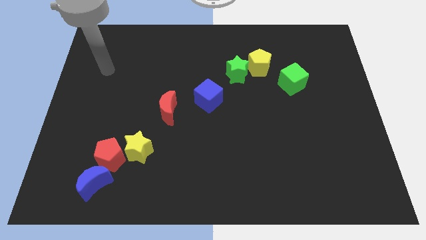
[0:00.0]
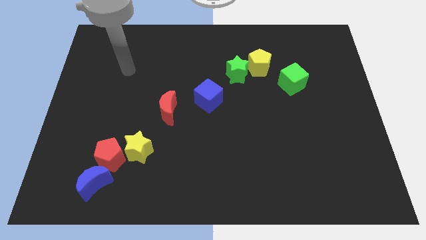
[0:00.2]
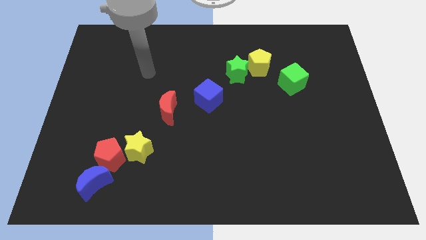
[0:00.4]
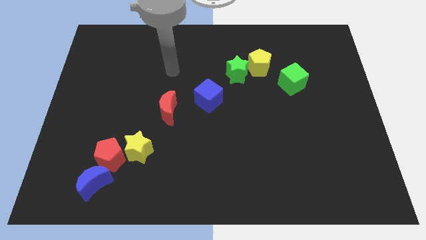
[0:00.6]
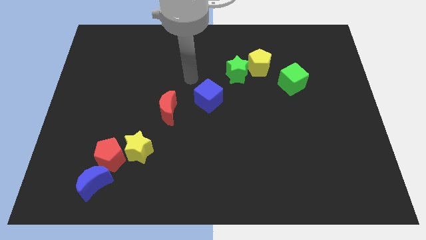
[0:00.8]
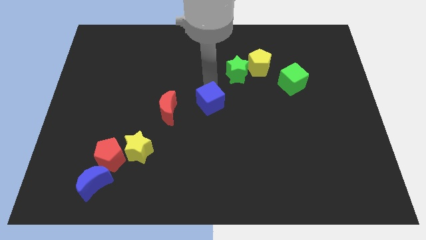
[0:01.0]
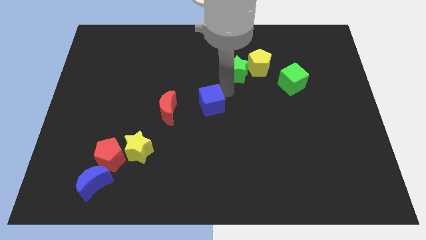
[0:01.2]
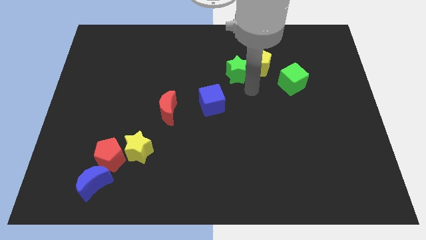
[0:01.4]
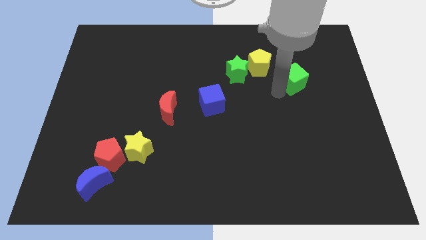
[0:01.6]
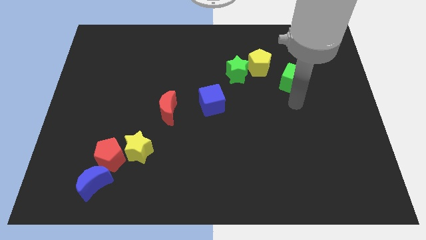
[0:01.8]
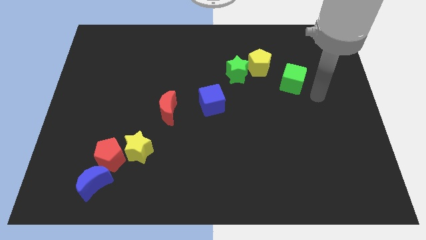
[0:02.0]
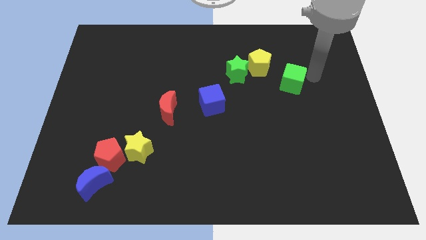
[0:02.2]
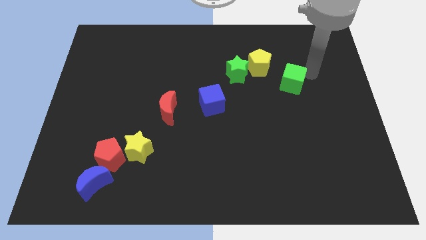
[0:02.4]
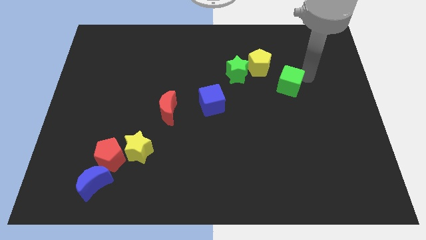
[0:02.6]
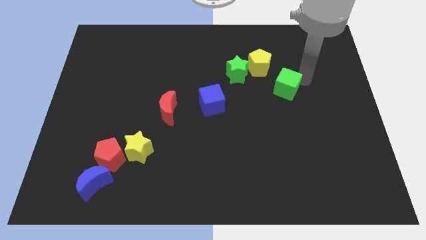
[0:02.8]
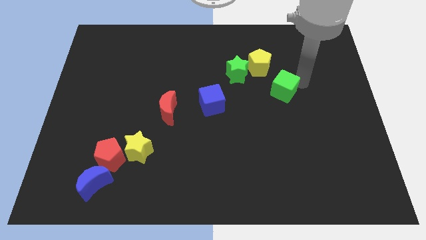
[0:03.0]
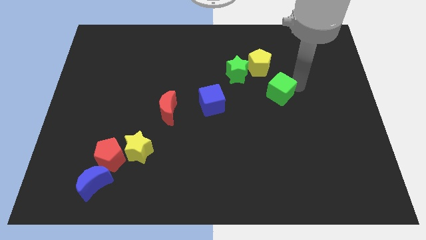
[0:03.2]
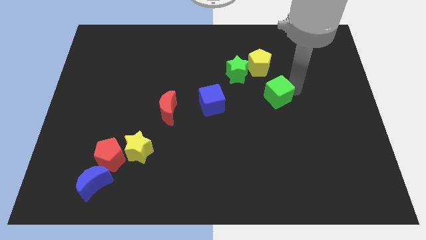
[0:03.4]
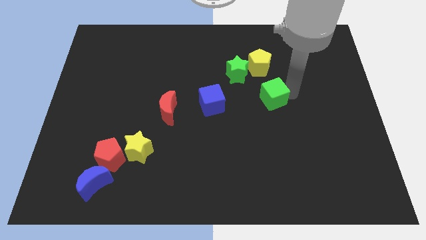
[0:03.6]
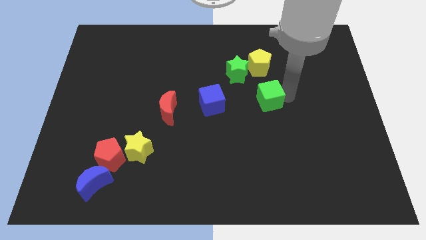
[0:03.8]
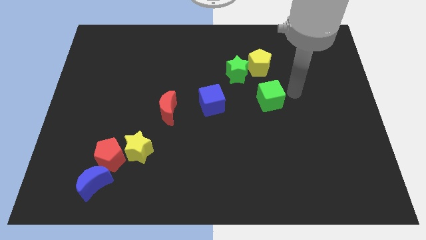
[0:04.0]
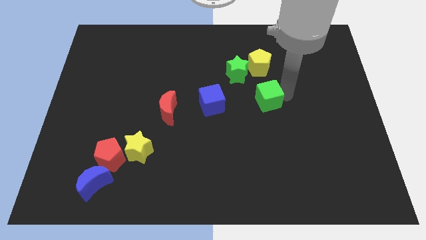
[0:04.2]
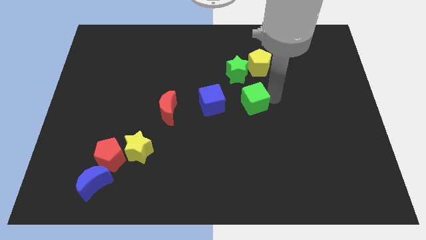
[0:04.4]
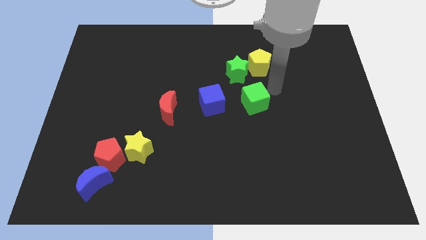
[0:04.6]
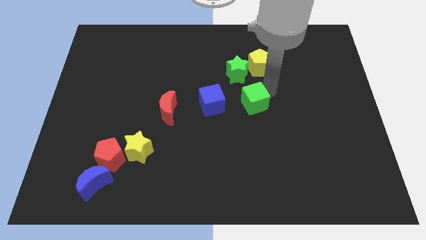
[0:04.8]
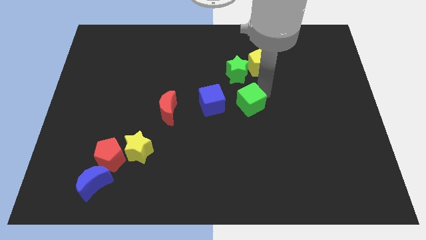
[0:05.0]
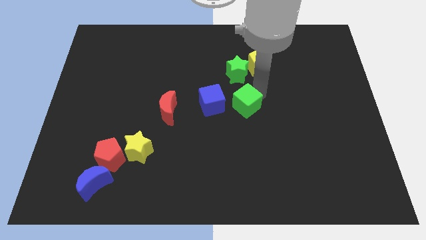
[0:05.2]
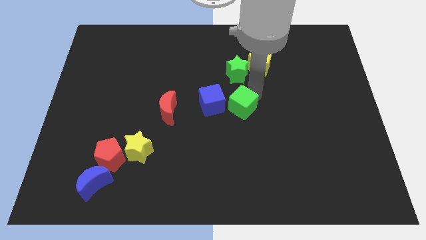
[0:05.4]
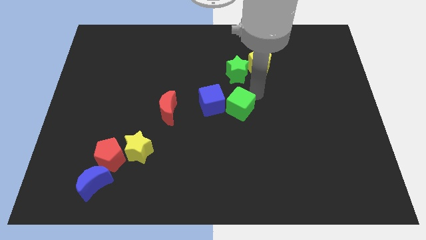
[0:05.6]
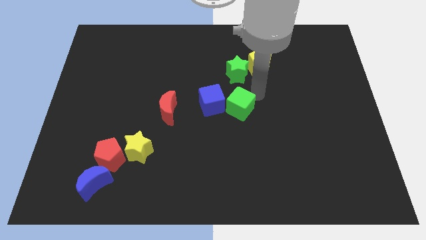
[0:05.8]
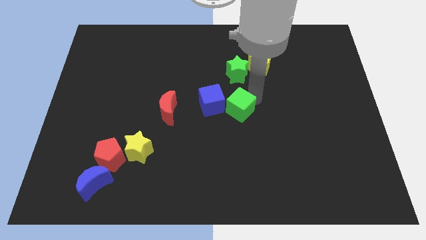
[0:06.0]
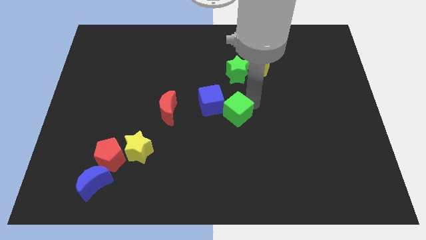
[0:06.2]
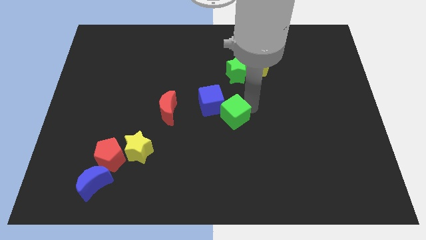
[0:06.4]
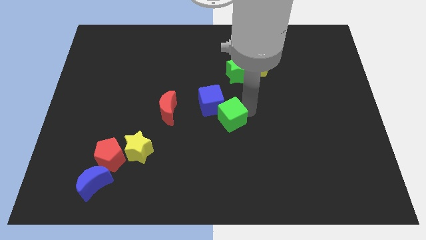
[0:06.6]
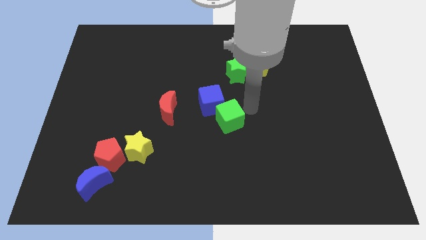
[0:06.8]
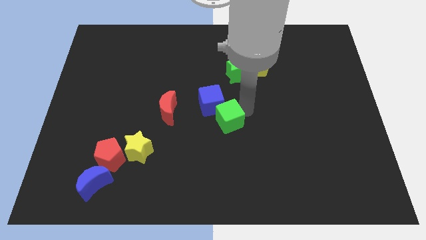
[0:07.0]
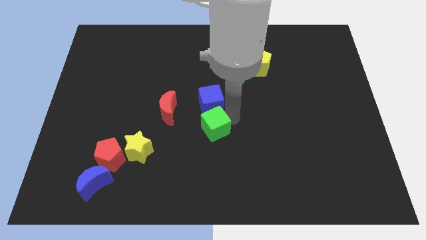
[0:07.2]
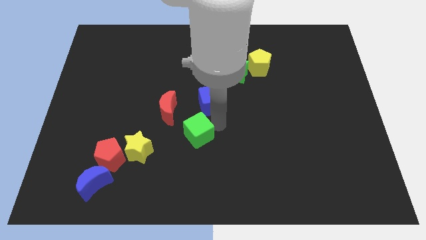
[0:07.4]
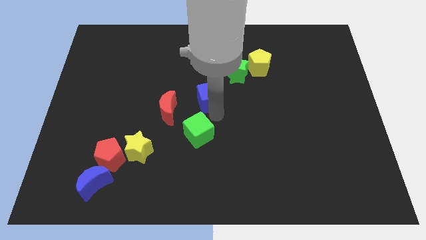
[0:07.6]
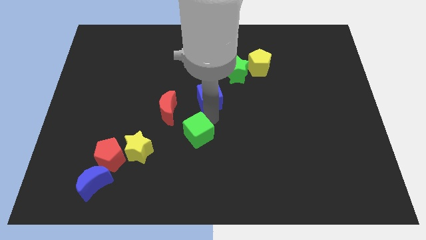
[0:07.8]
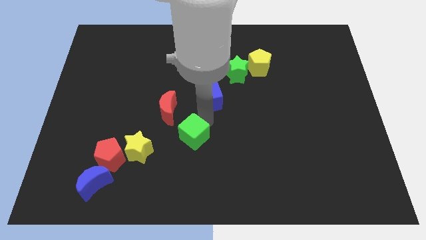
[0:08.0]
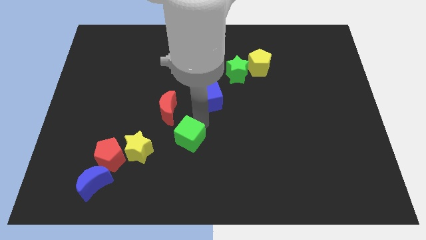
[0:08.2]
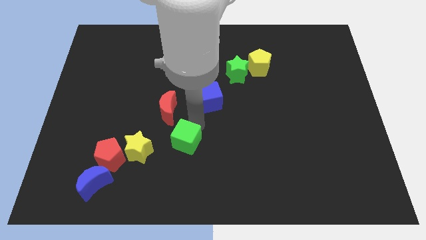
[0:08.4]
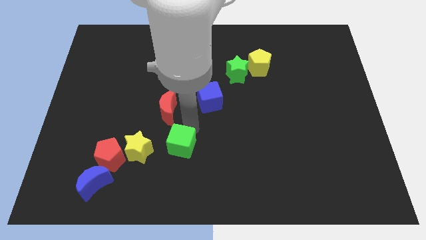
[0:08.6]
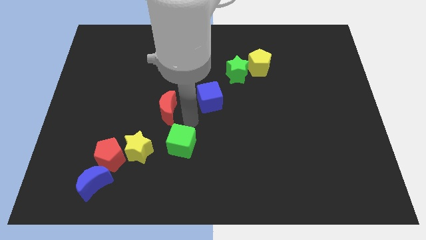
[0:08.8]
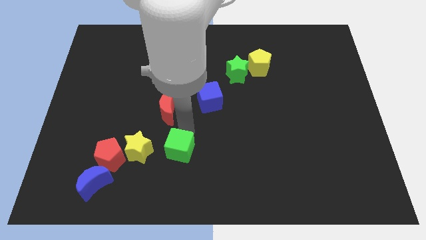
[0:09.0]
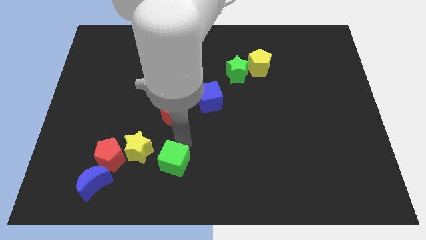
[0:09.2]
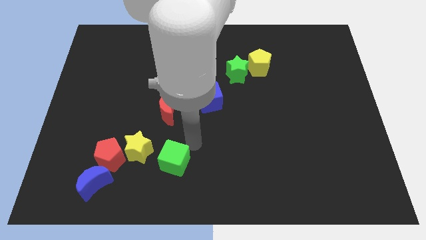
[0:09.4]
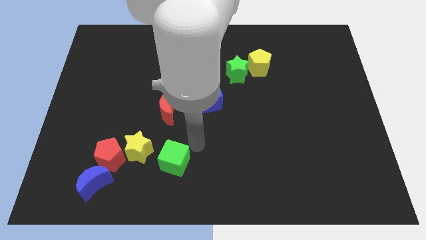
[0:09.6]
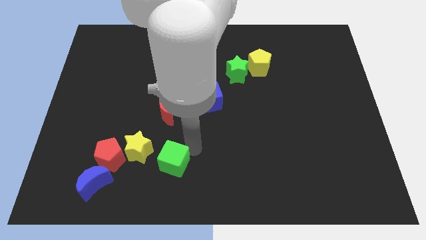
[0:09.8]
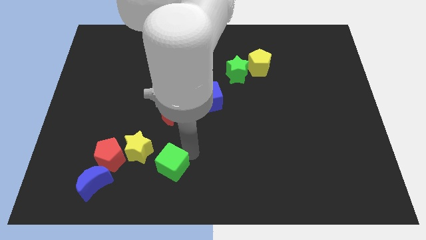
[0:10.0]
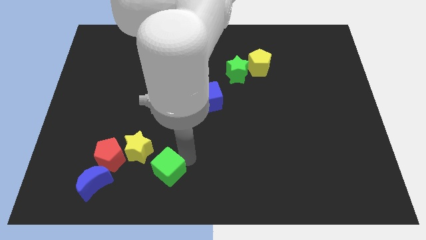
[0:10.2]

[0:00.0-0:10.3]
move the green cube to the right of the blue moon

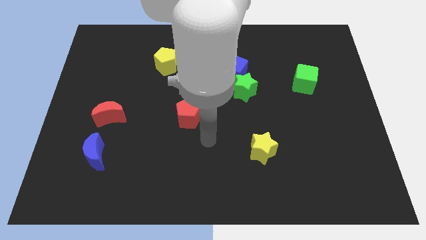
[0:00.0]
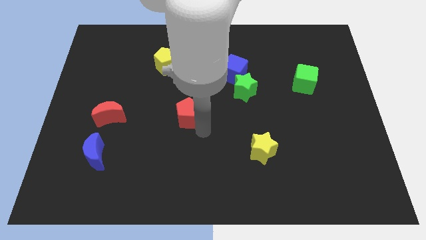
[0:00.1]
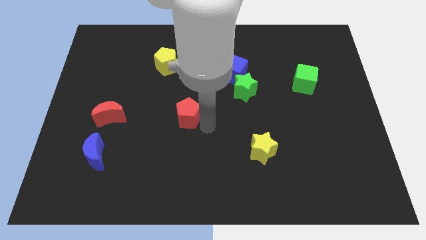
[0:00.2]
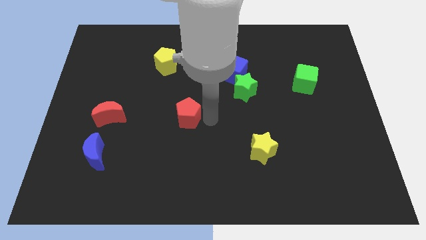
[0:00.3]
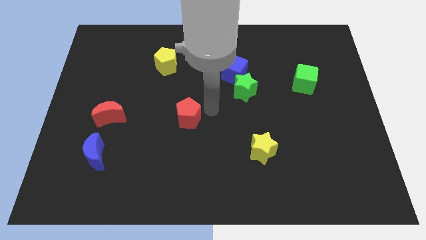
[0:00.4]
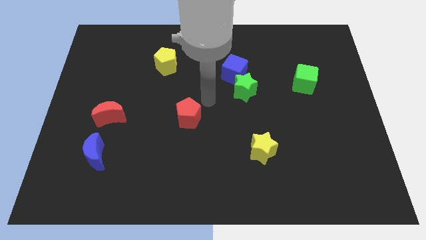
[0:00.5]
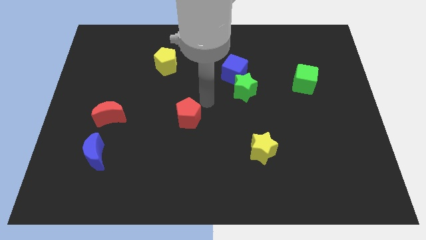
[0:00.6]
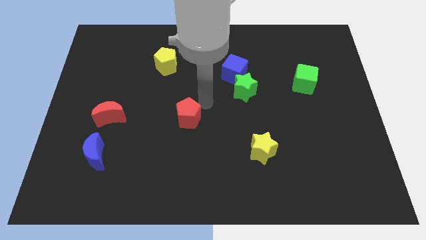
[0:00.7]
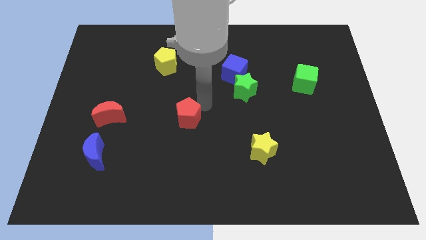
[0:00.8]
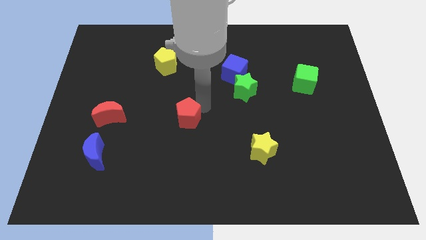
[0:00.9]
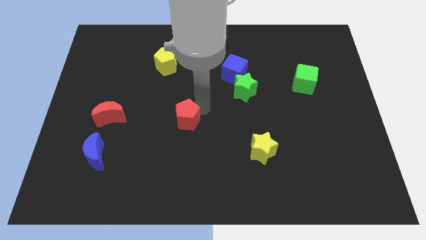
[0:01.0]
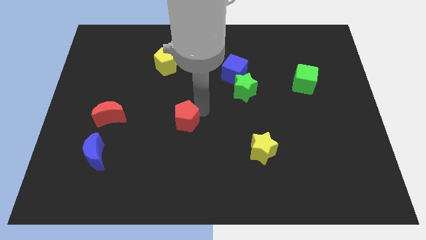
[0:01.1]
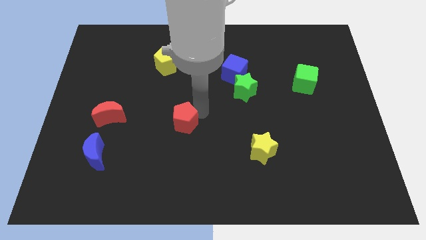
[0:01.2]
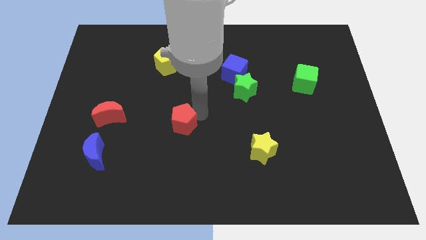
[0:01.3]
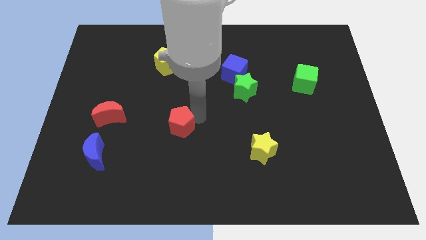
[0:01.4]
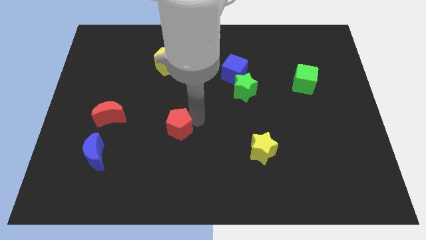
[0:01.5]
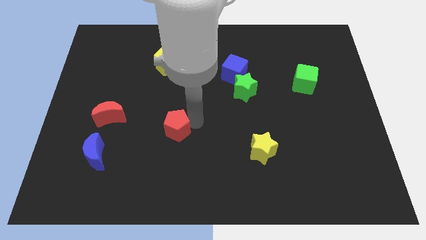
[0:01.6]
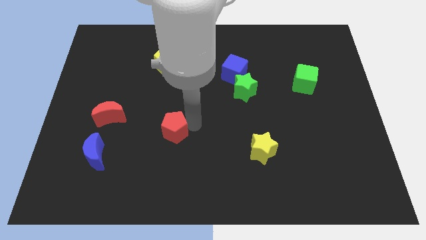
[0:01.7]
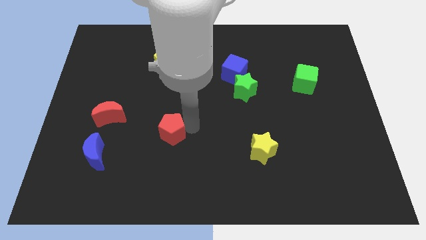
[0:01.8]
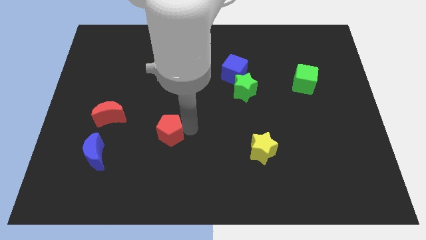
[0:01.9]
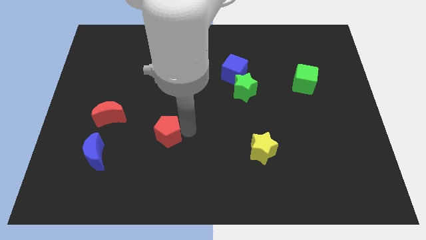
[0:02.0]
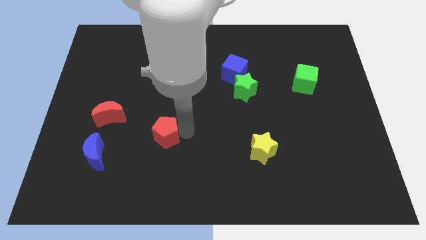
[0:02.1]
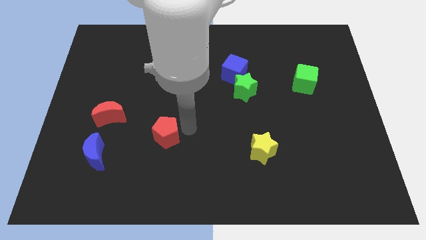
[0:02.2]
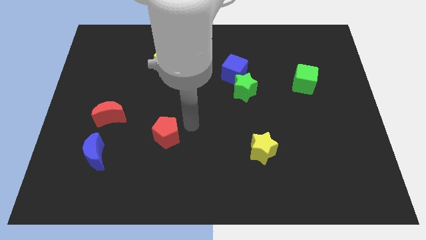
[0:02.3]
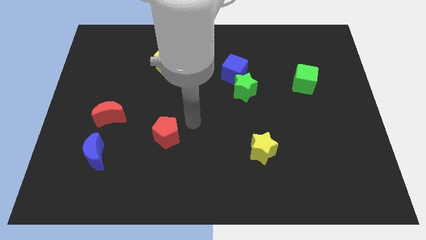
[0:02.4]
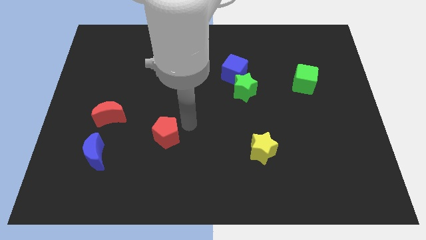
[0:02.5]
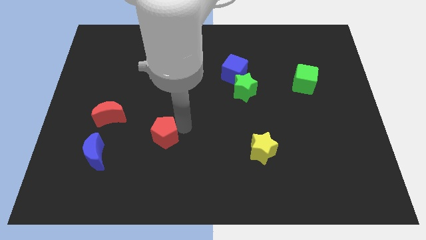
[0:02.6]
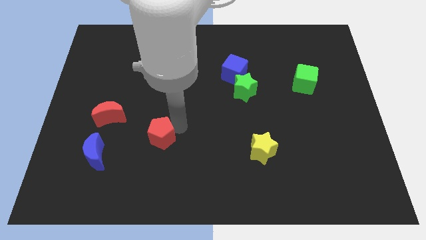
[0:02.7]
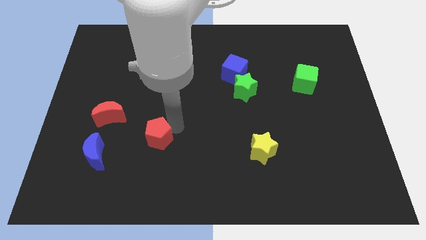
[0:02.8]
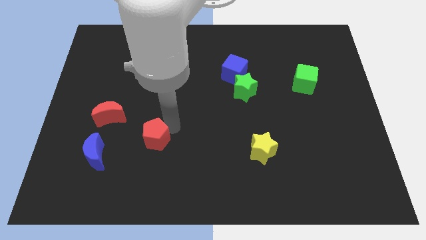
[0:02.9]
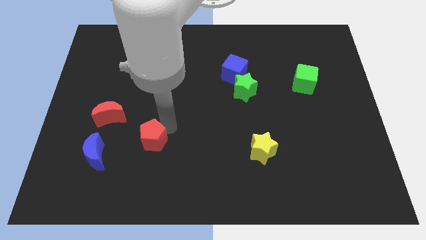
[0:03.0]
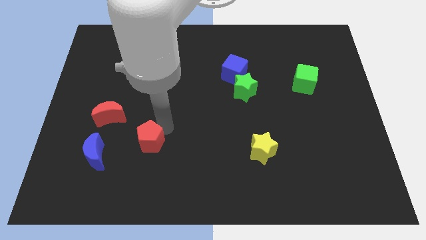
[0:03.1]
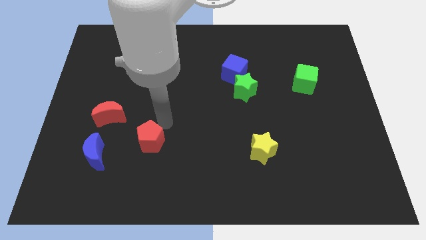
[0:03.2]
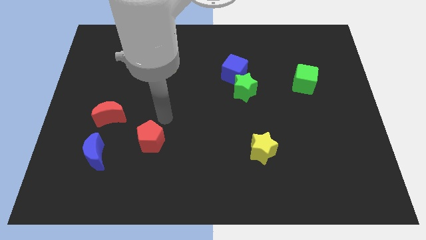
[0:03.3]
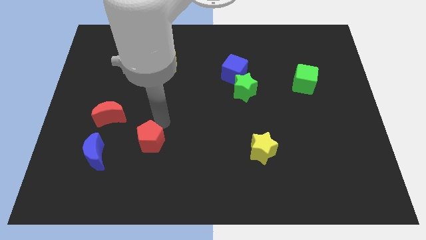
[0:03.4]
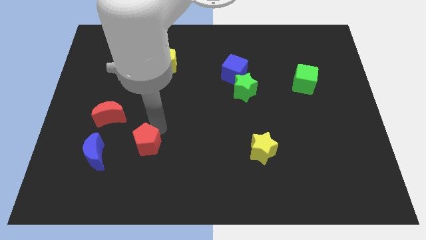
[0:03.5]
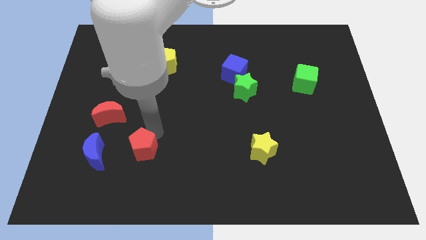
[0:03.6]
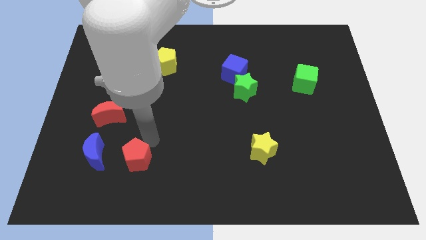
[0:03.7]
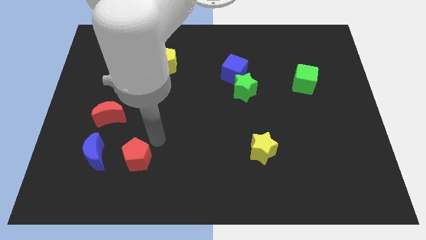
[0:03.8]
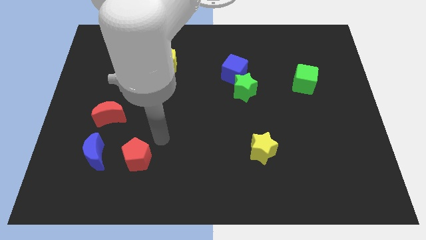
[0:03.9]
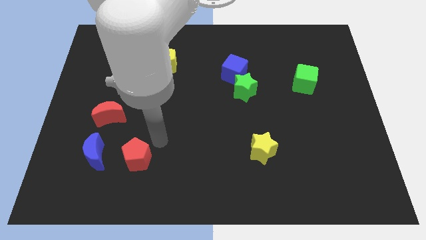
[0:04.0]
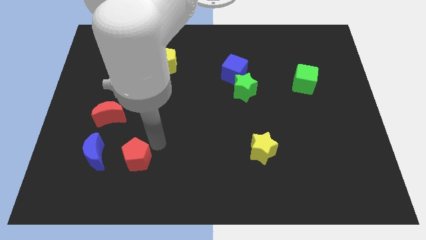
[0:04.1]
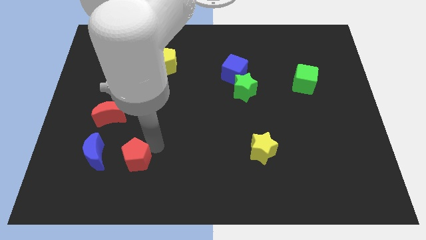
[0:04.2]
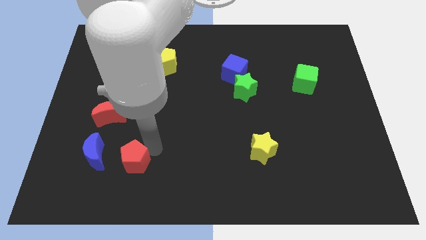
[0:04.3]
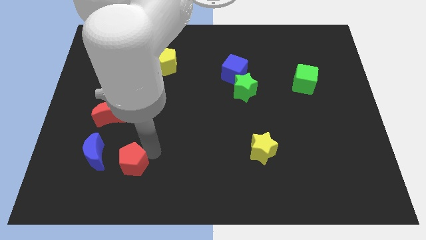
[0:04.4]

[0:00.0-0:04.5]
slide the red pentagon diagonally down and to the right of the blue moon
